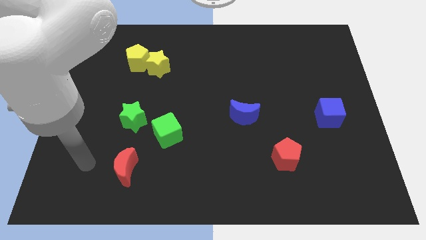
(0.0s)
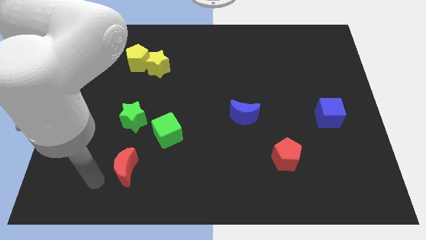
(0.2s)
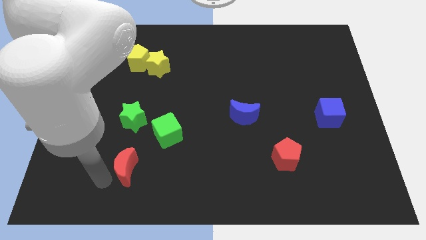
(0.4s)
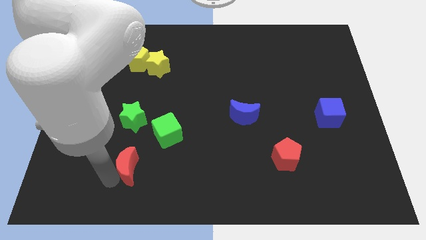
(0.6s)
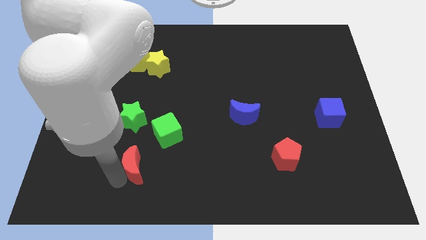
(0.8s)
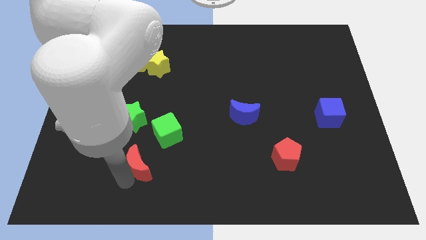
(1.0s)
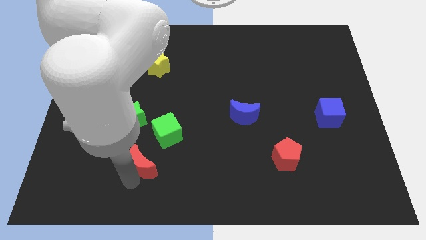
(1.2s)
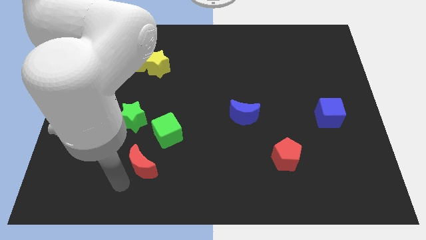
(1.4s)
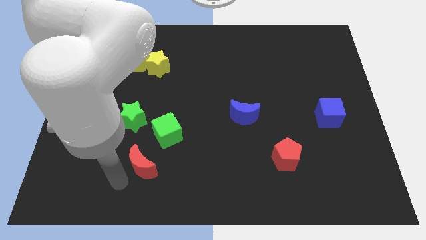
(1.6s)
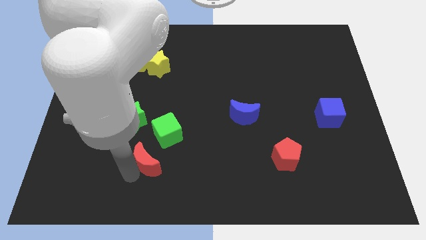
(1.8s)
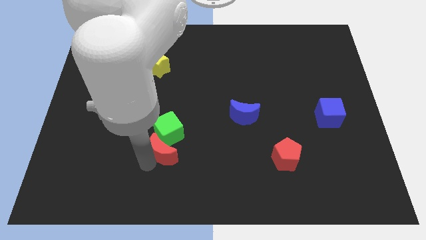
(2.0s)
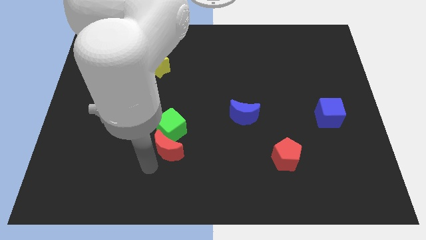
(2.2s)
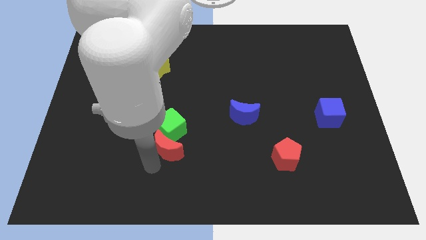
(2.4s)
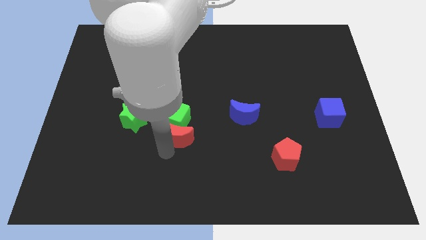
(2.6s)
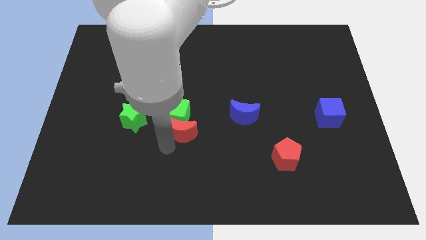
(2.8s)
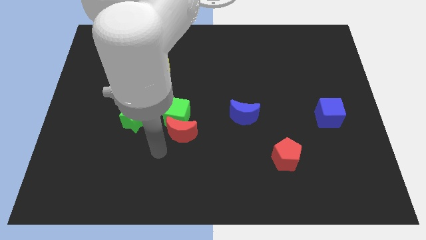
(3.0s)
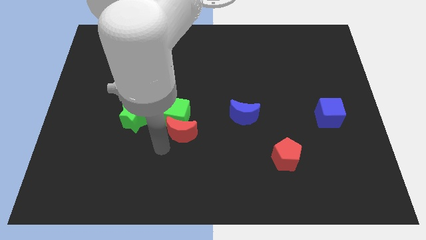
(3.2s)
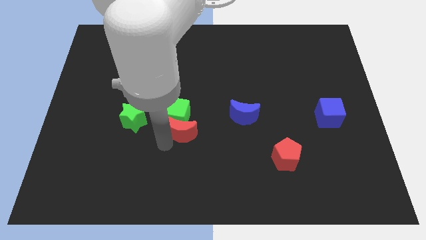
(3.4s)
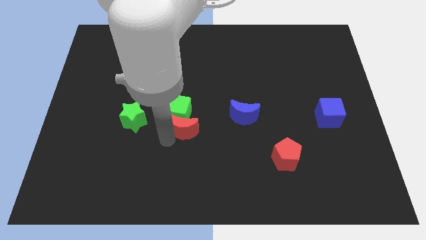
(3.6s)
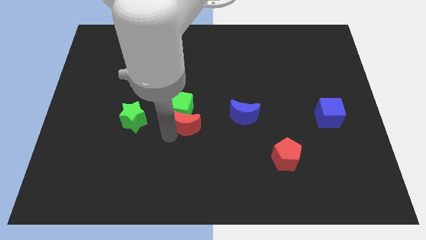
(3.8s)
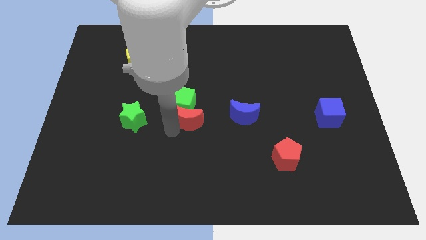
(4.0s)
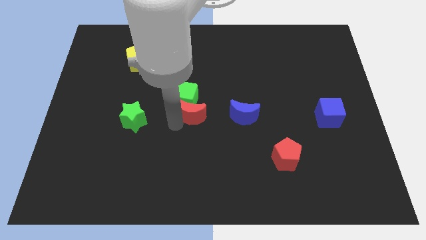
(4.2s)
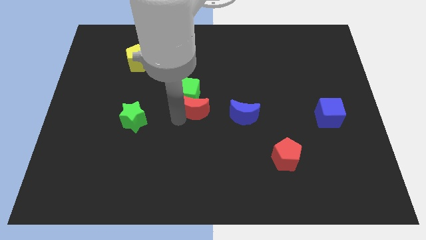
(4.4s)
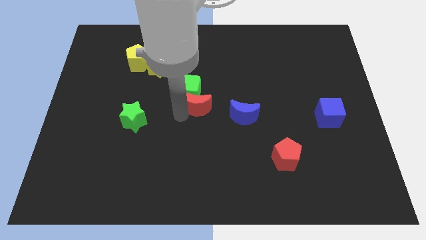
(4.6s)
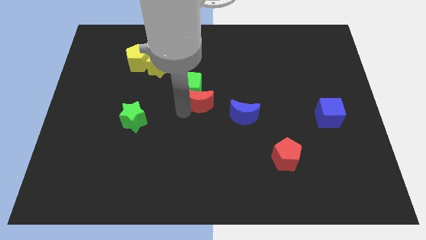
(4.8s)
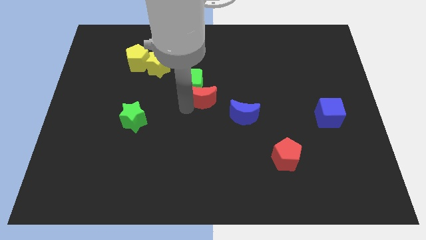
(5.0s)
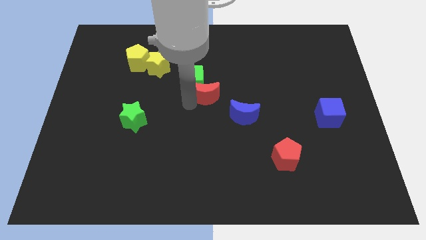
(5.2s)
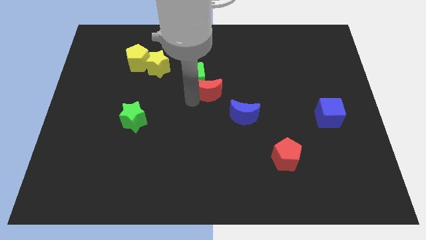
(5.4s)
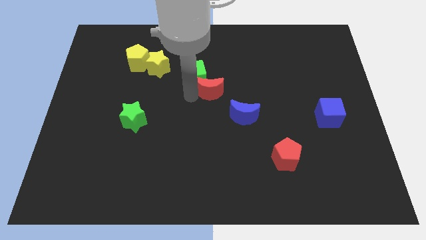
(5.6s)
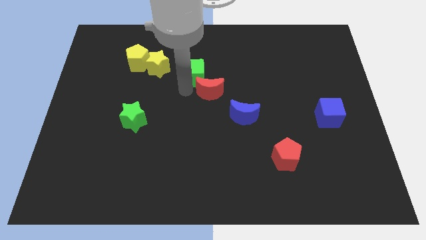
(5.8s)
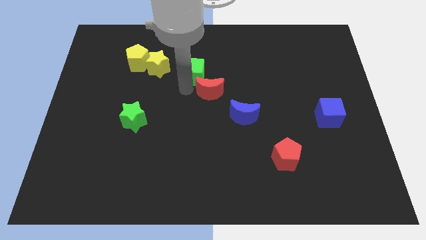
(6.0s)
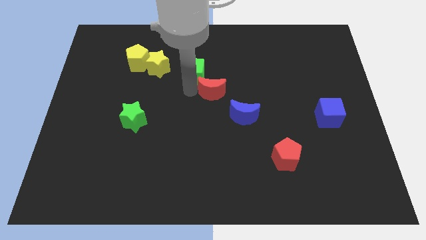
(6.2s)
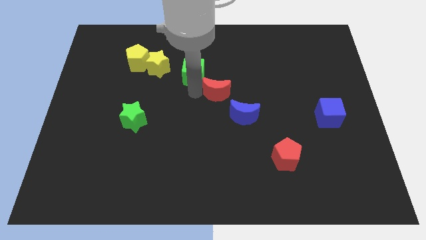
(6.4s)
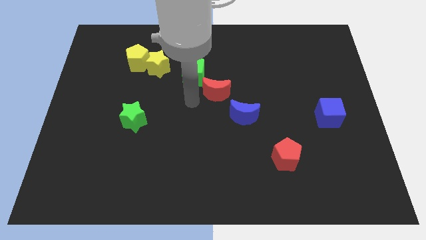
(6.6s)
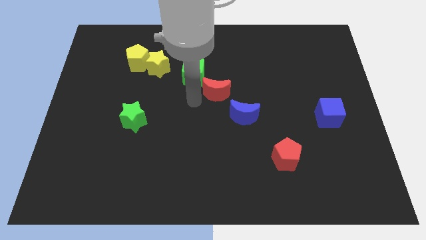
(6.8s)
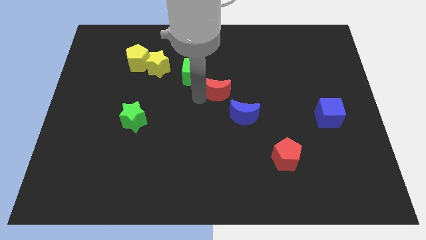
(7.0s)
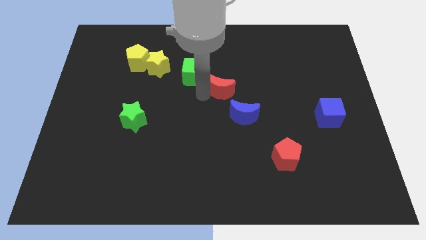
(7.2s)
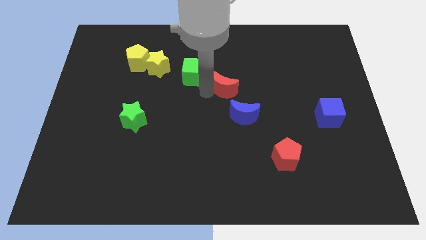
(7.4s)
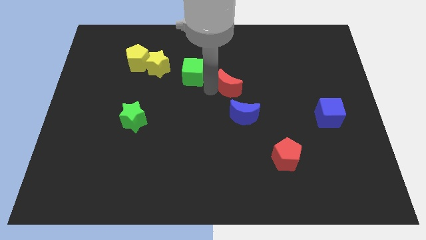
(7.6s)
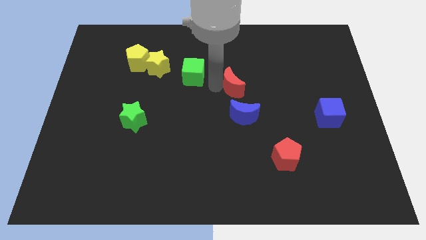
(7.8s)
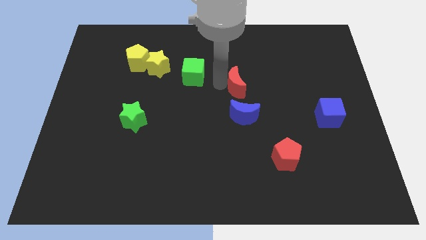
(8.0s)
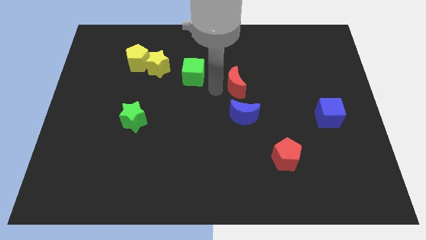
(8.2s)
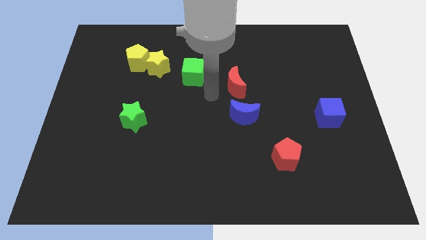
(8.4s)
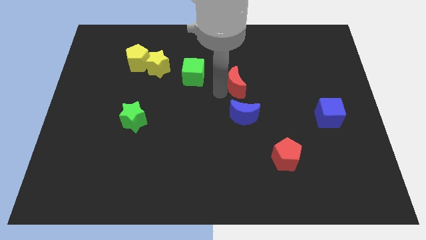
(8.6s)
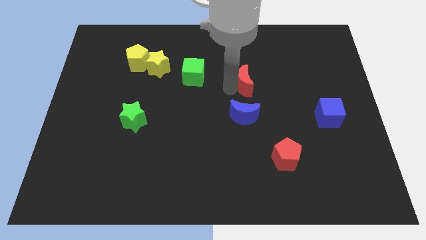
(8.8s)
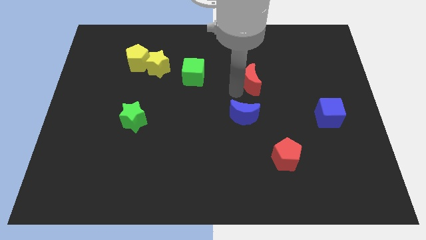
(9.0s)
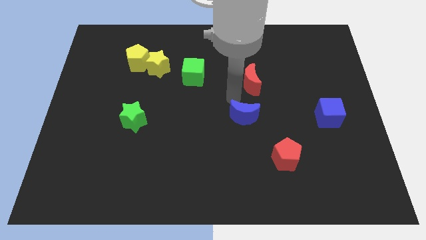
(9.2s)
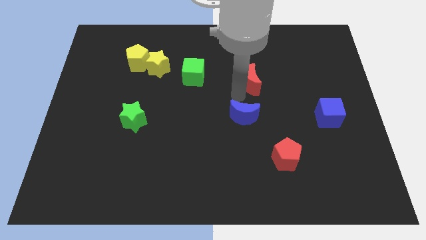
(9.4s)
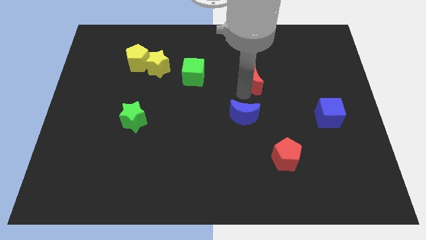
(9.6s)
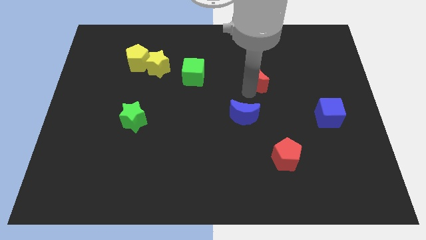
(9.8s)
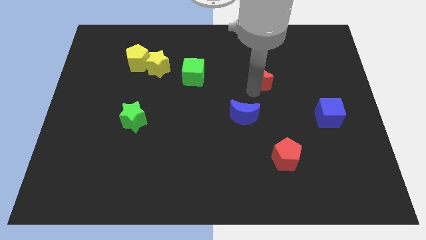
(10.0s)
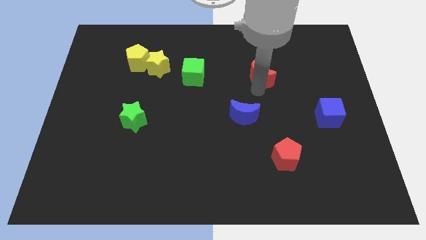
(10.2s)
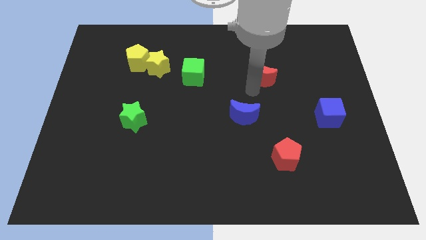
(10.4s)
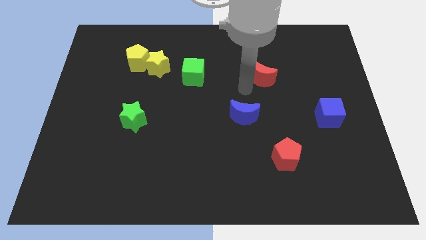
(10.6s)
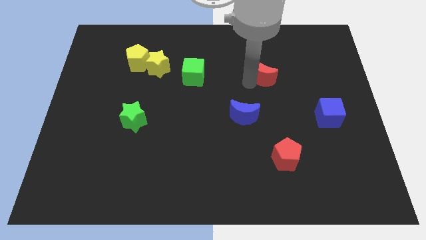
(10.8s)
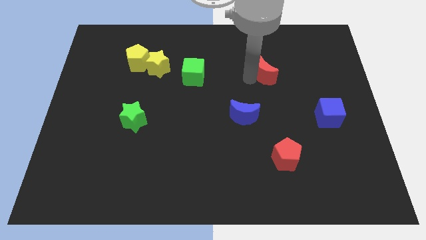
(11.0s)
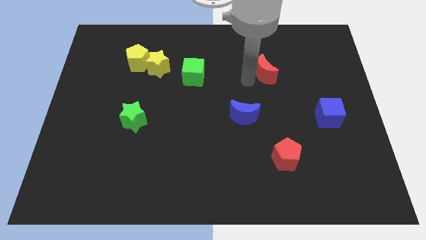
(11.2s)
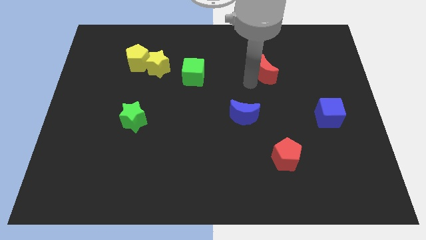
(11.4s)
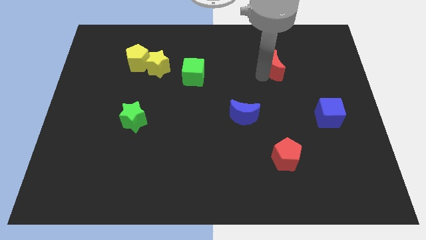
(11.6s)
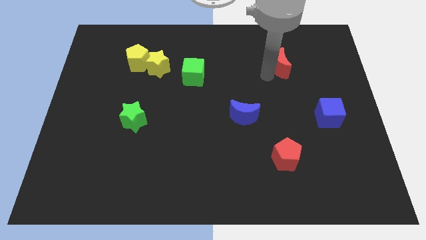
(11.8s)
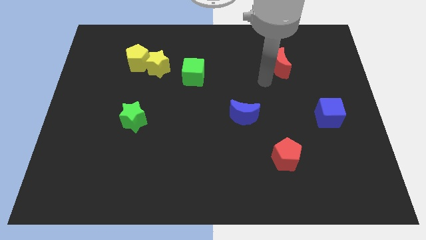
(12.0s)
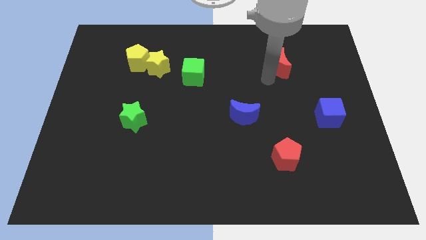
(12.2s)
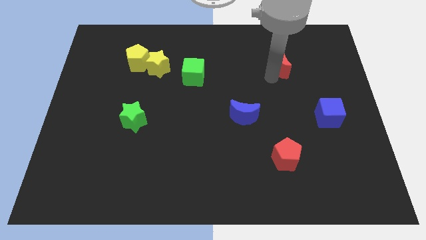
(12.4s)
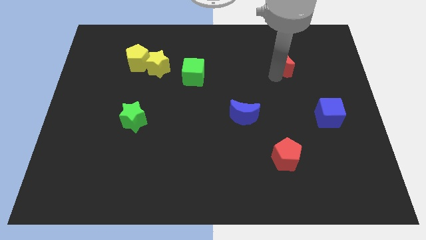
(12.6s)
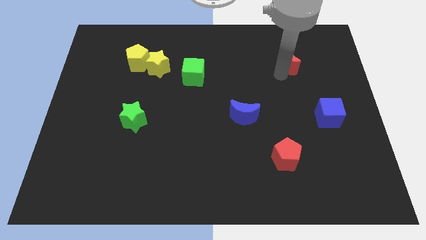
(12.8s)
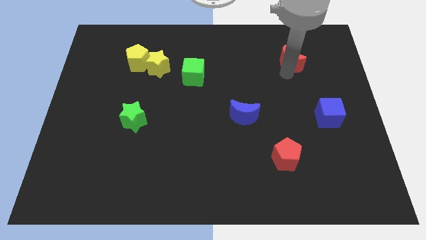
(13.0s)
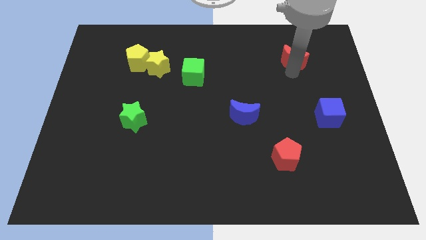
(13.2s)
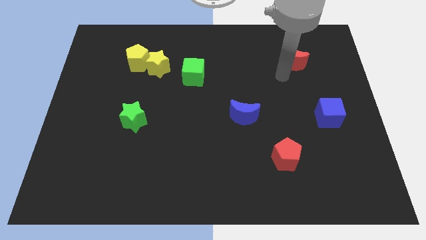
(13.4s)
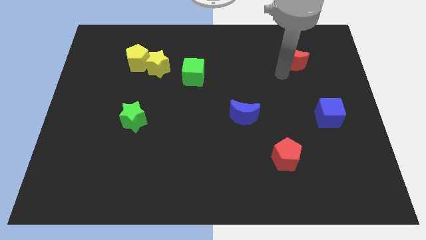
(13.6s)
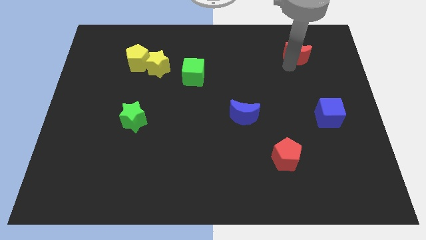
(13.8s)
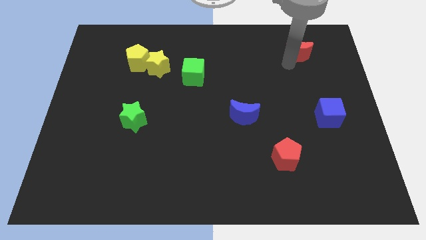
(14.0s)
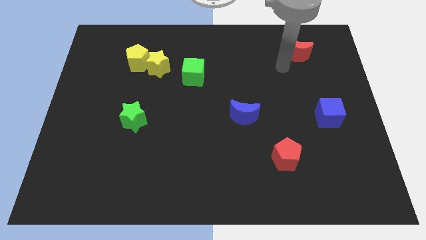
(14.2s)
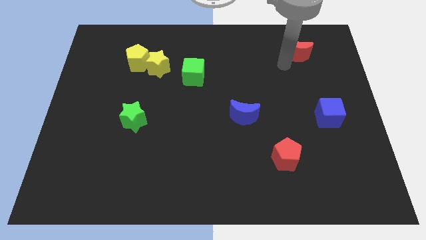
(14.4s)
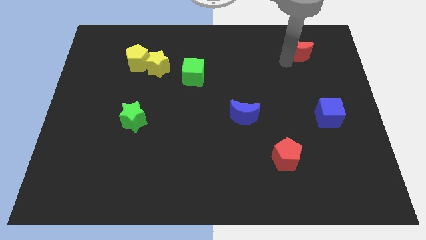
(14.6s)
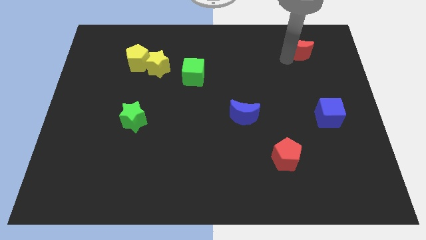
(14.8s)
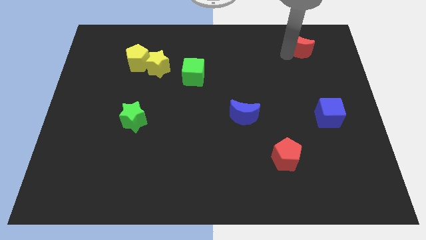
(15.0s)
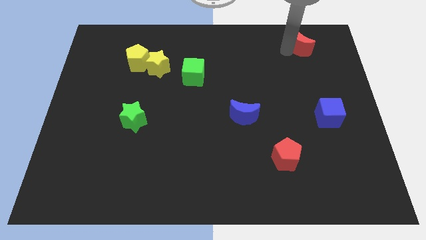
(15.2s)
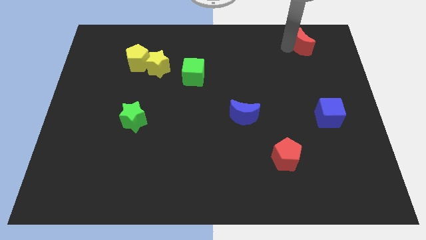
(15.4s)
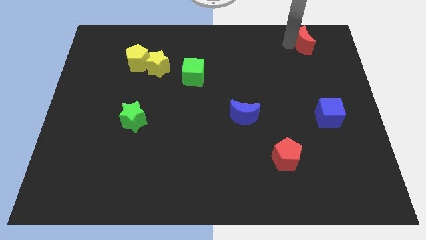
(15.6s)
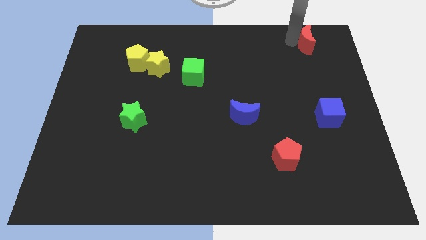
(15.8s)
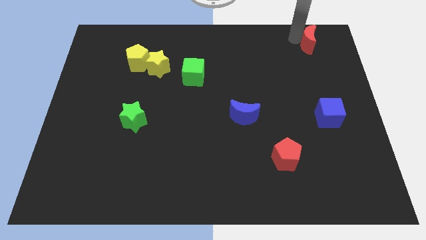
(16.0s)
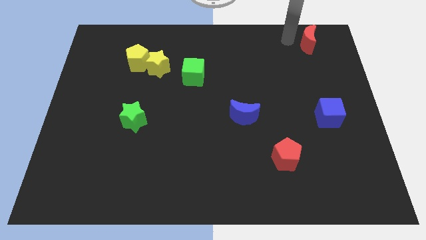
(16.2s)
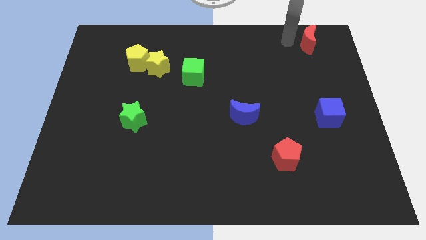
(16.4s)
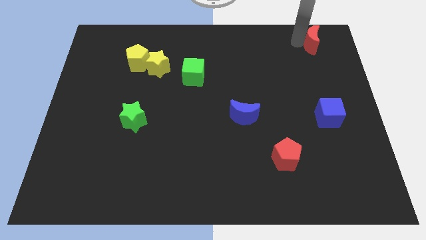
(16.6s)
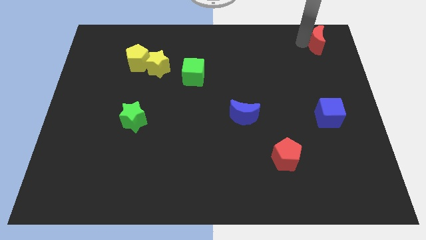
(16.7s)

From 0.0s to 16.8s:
put the red moon to the top right corner
